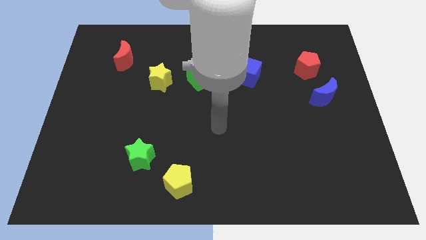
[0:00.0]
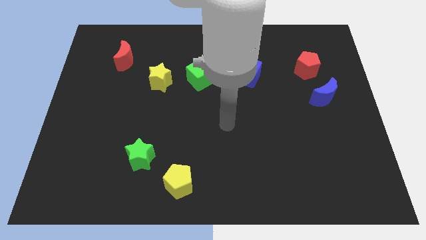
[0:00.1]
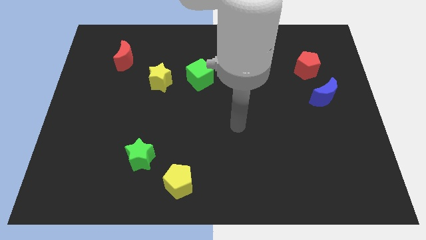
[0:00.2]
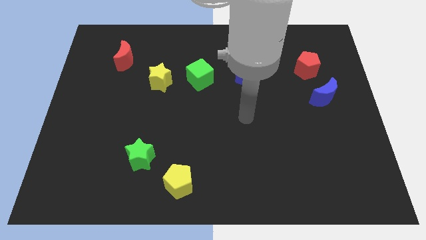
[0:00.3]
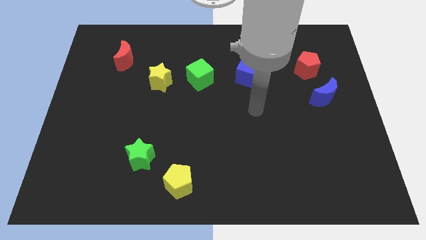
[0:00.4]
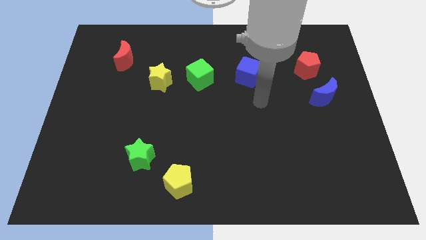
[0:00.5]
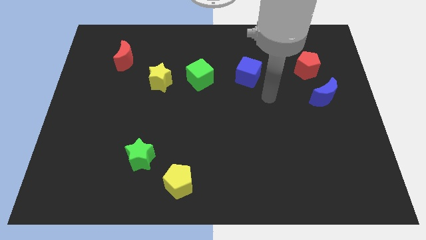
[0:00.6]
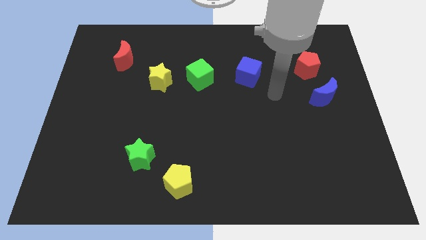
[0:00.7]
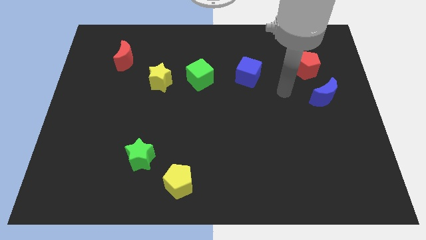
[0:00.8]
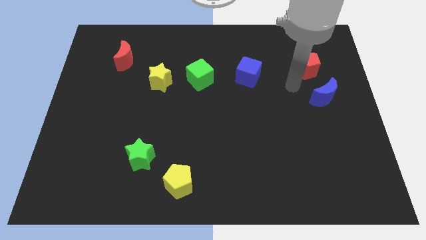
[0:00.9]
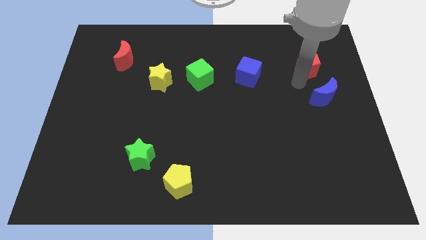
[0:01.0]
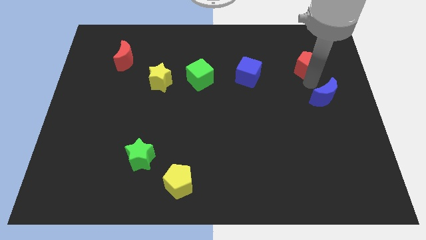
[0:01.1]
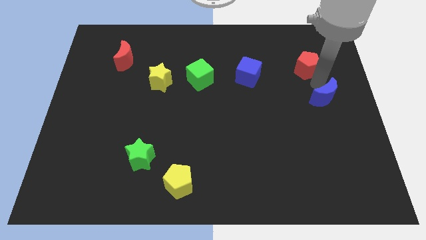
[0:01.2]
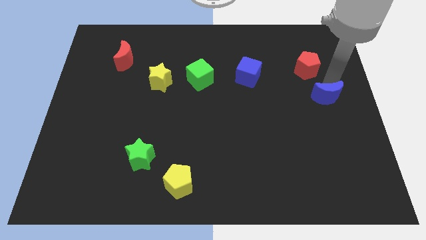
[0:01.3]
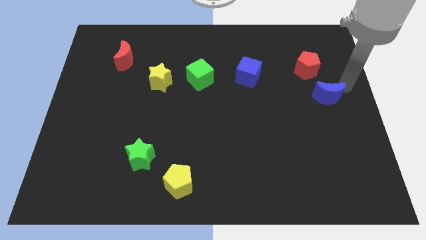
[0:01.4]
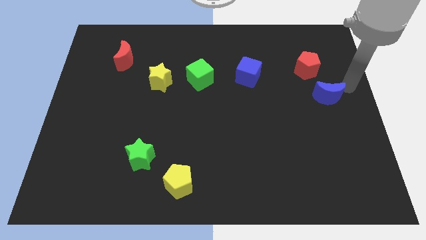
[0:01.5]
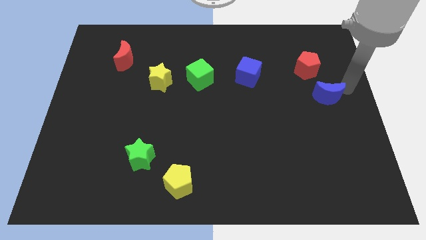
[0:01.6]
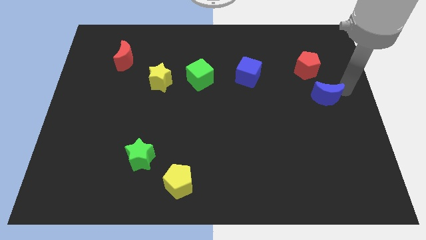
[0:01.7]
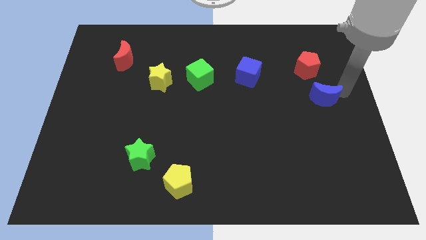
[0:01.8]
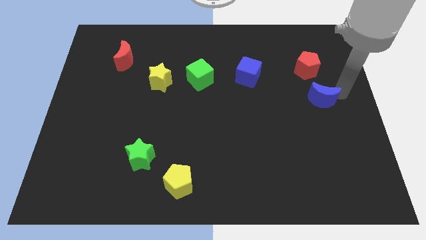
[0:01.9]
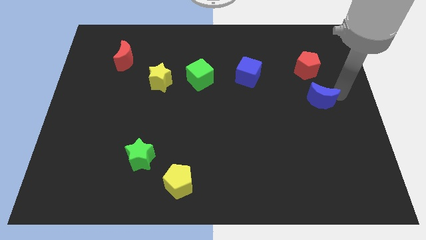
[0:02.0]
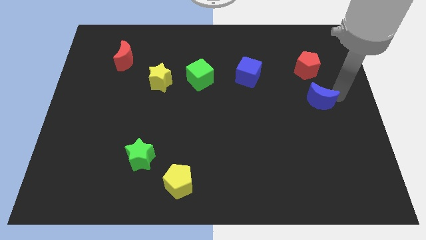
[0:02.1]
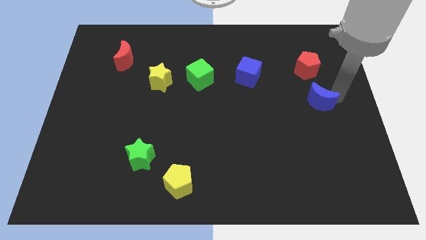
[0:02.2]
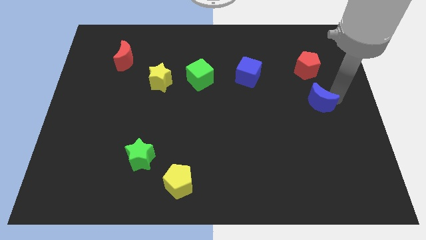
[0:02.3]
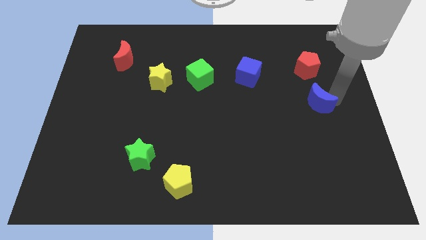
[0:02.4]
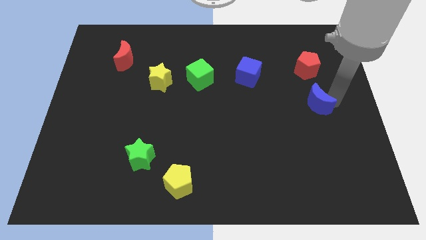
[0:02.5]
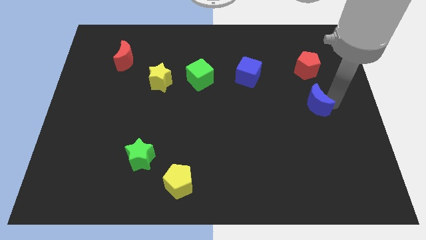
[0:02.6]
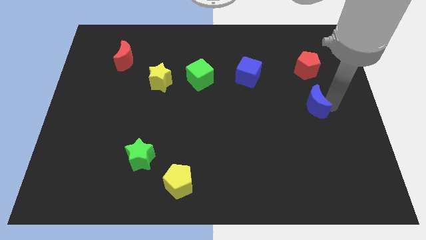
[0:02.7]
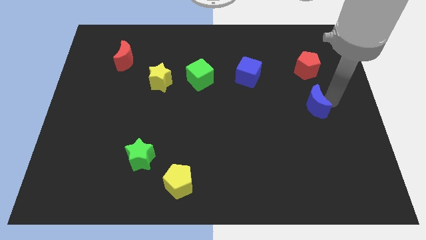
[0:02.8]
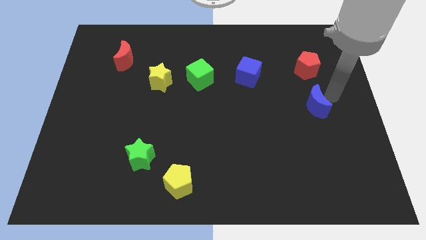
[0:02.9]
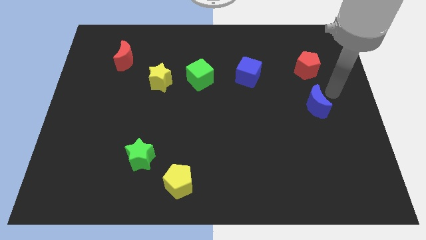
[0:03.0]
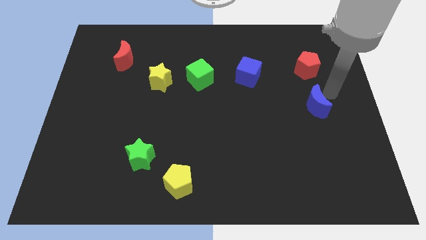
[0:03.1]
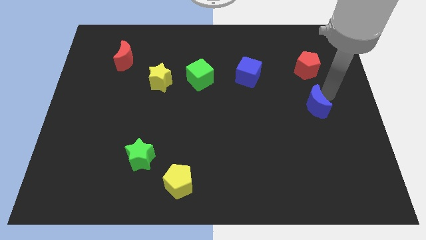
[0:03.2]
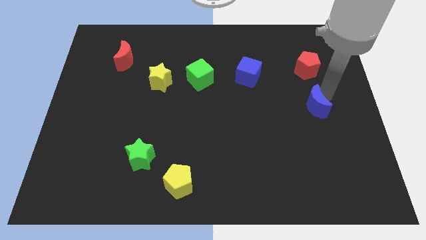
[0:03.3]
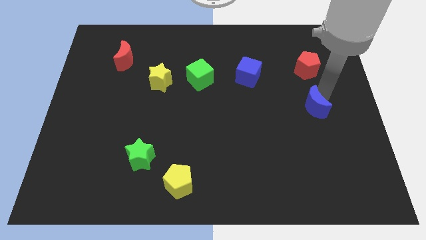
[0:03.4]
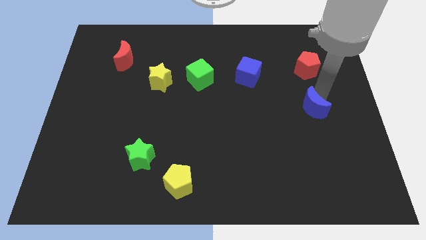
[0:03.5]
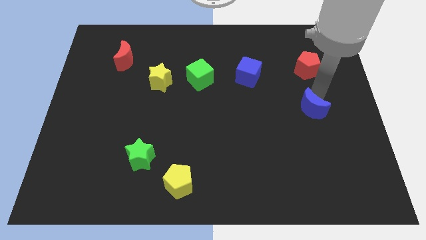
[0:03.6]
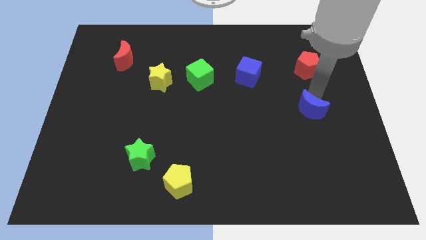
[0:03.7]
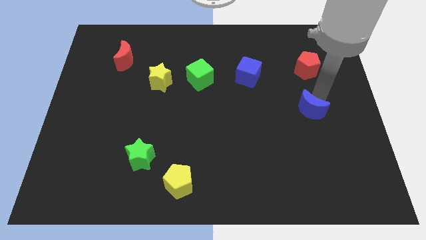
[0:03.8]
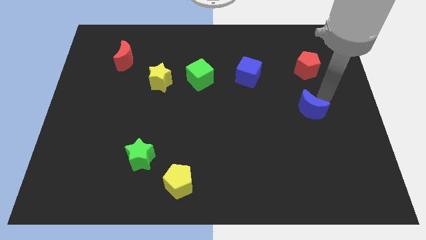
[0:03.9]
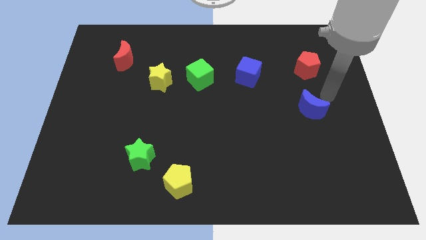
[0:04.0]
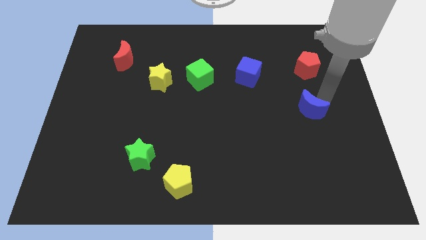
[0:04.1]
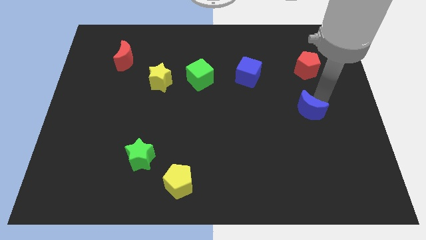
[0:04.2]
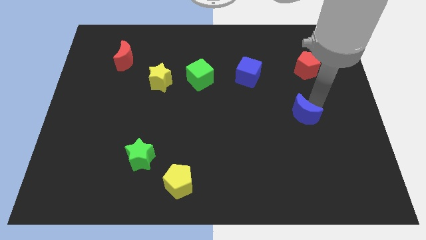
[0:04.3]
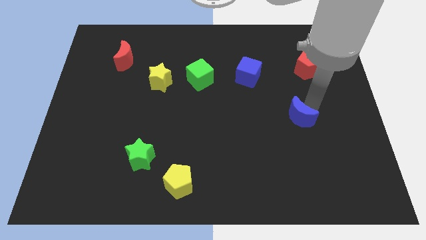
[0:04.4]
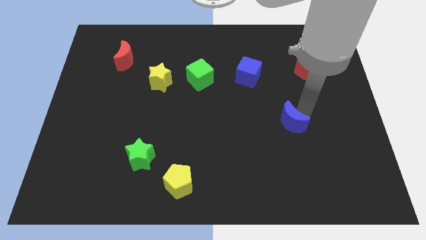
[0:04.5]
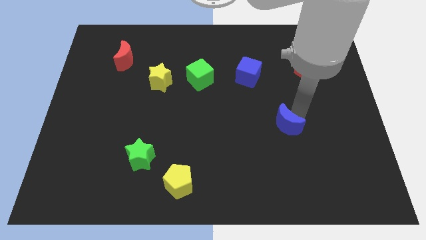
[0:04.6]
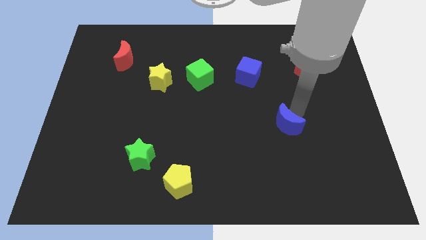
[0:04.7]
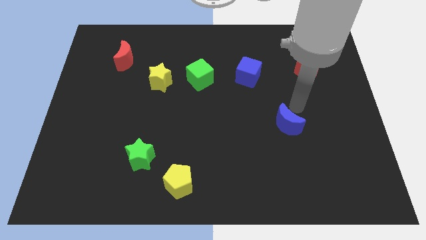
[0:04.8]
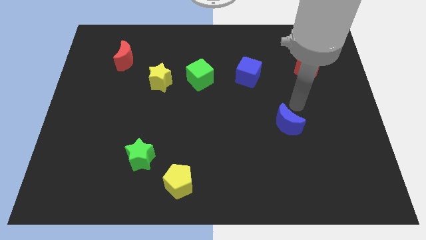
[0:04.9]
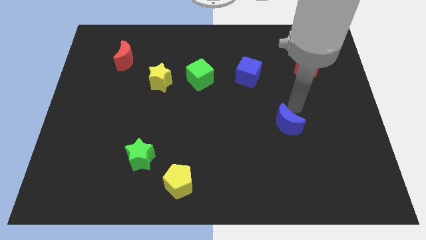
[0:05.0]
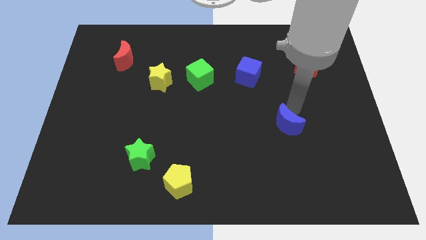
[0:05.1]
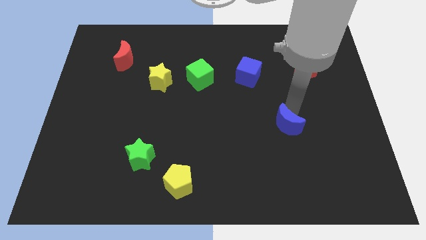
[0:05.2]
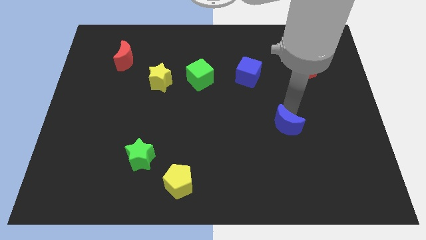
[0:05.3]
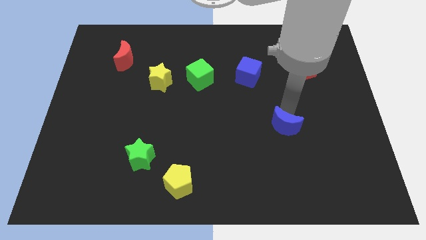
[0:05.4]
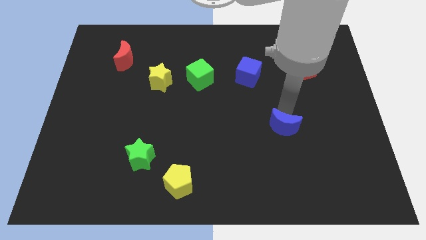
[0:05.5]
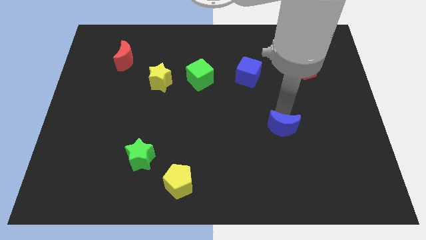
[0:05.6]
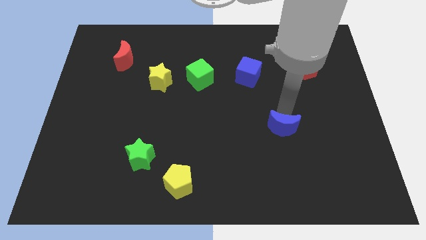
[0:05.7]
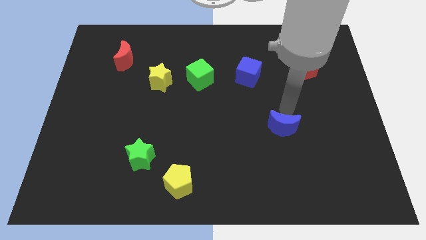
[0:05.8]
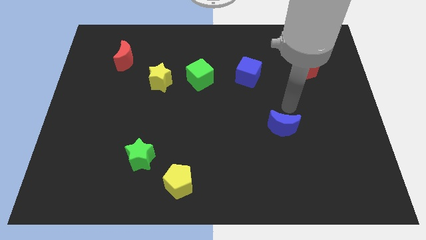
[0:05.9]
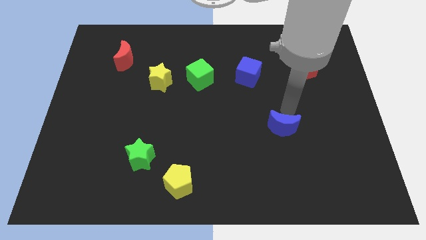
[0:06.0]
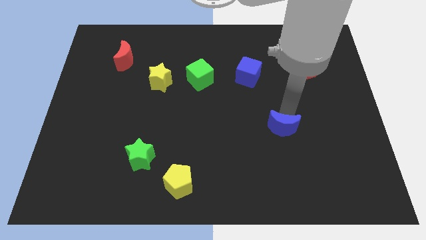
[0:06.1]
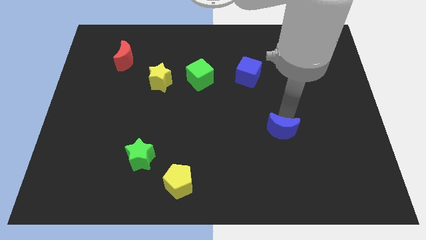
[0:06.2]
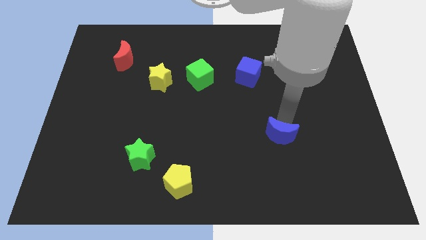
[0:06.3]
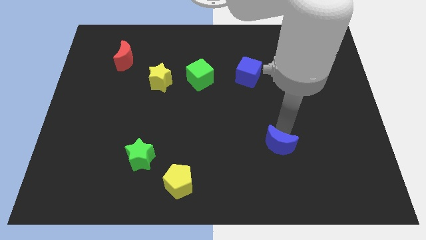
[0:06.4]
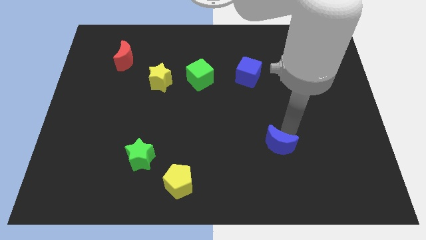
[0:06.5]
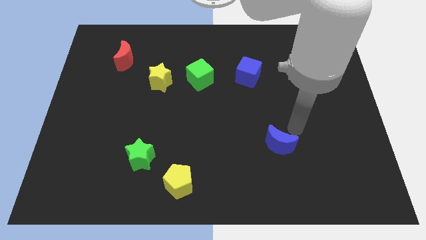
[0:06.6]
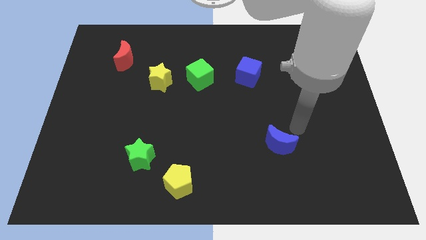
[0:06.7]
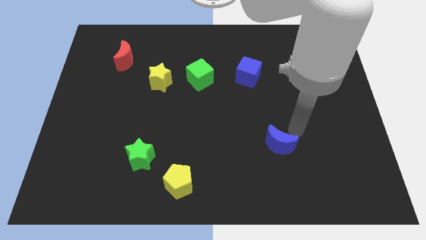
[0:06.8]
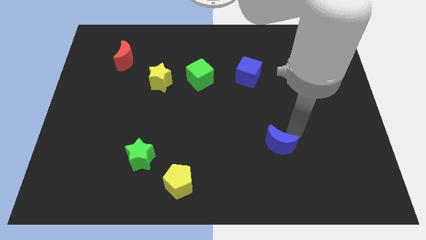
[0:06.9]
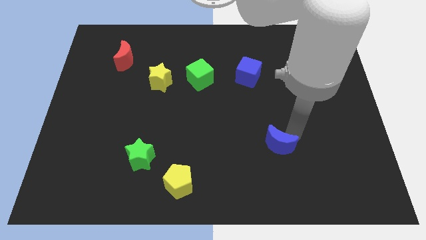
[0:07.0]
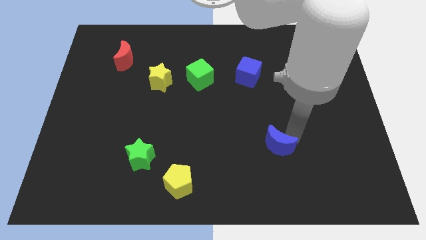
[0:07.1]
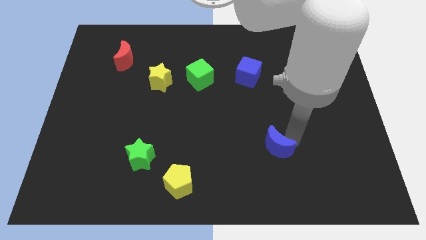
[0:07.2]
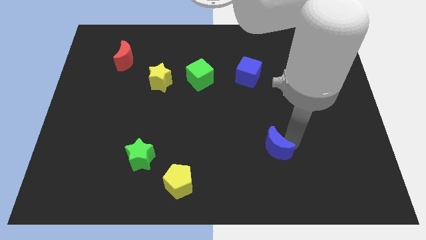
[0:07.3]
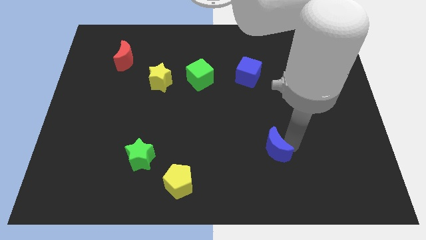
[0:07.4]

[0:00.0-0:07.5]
push the blue moon down and then to the left

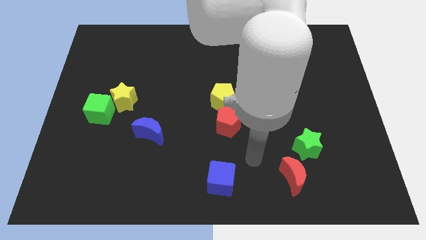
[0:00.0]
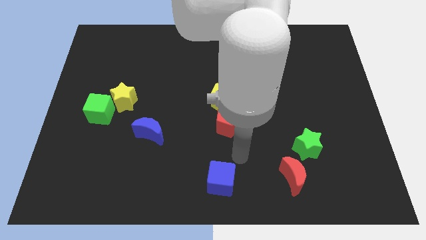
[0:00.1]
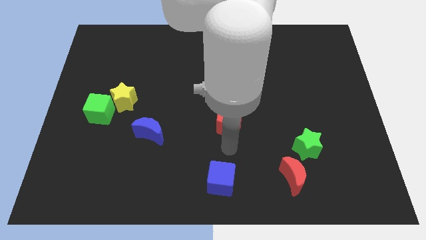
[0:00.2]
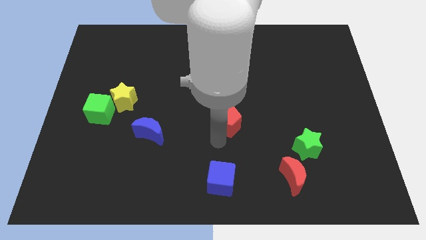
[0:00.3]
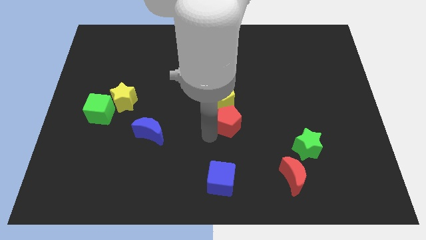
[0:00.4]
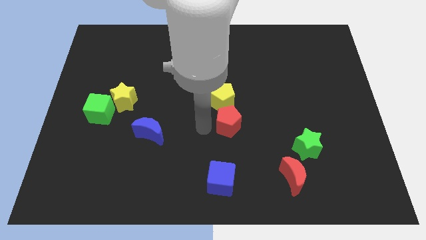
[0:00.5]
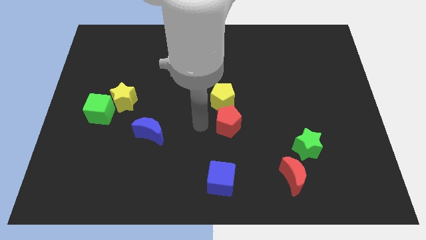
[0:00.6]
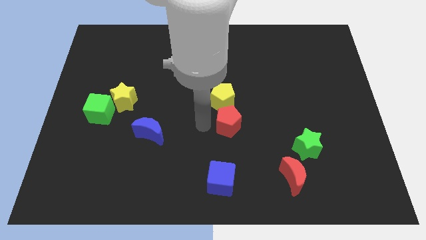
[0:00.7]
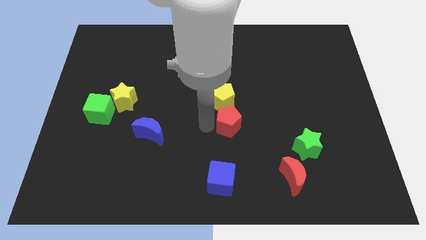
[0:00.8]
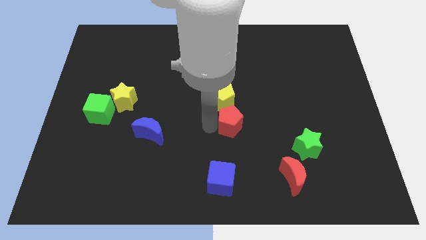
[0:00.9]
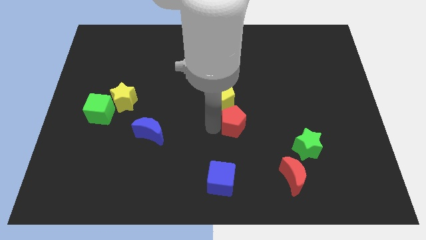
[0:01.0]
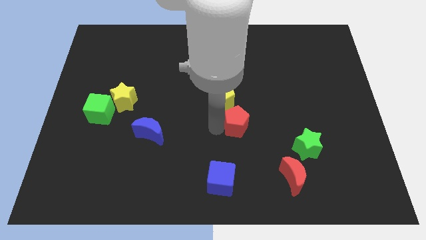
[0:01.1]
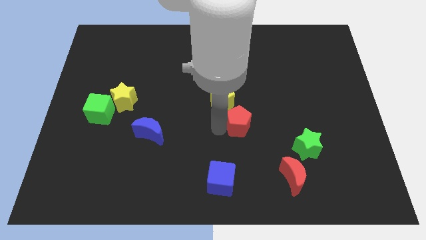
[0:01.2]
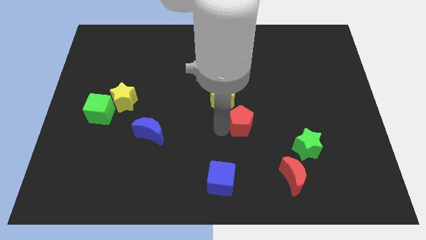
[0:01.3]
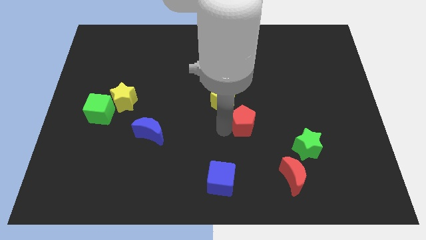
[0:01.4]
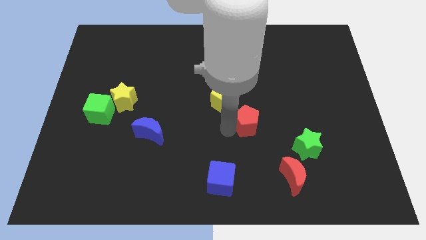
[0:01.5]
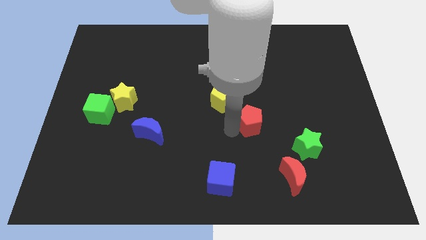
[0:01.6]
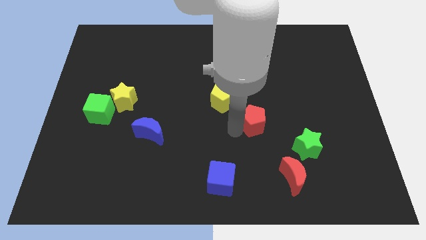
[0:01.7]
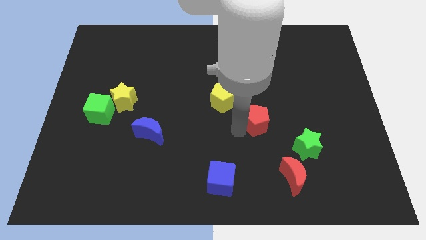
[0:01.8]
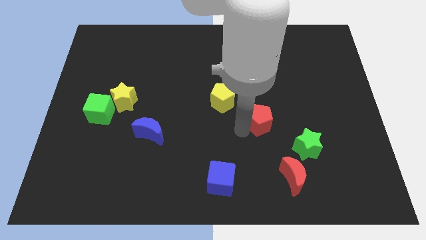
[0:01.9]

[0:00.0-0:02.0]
push the red pentagon to the right somewhat
